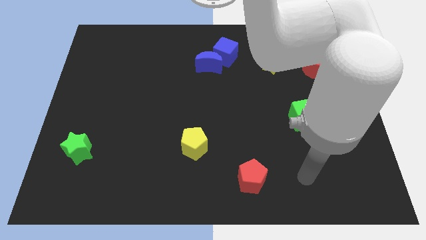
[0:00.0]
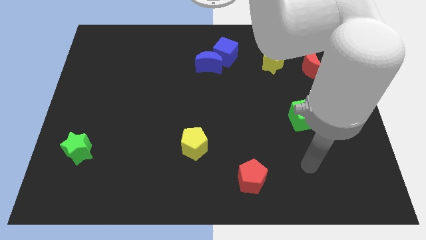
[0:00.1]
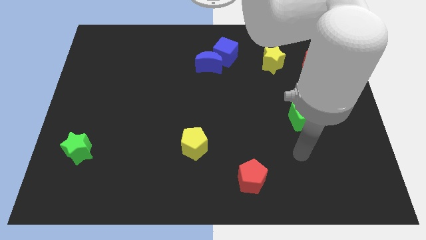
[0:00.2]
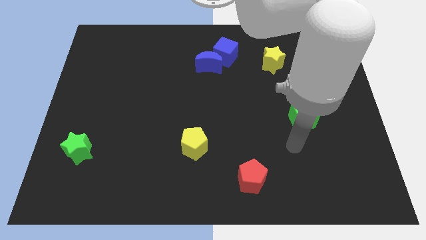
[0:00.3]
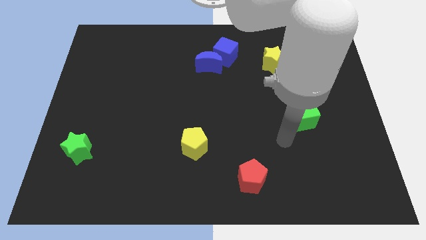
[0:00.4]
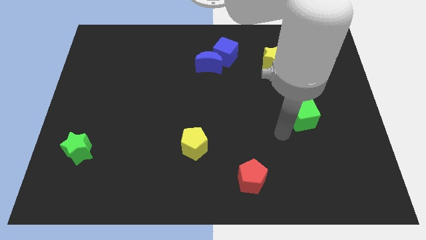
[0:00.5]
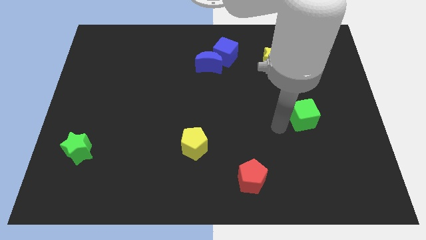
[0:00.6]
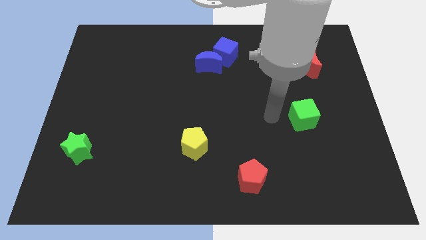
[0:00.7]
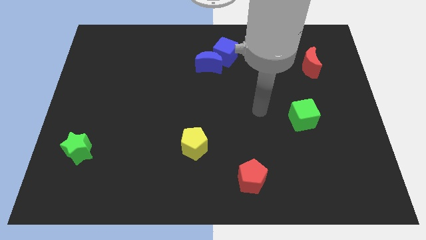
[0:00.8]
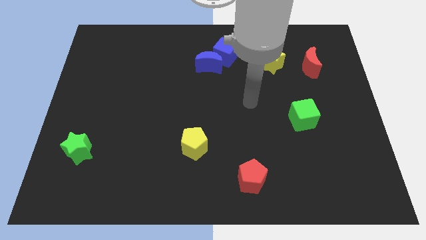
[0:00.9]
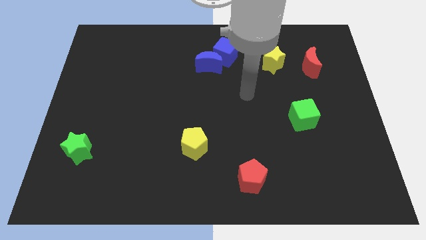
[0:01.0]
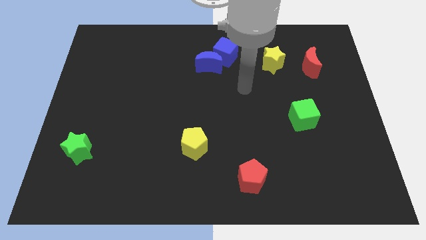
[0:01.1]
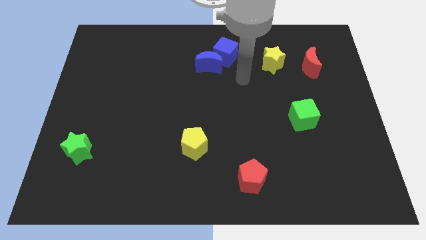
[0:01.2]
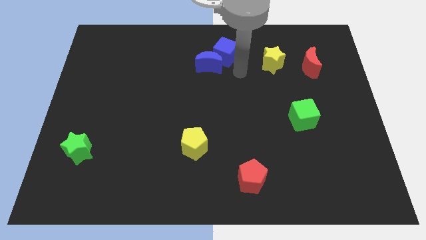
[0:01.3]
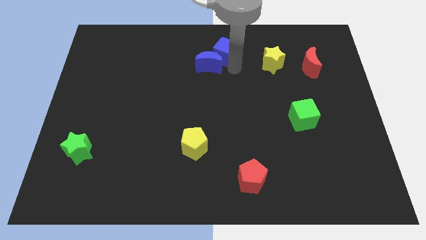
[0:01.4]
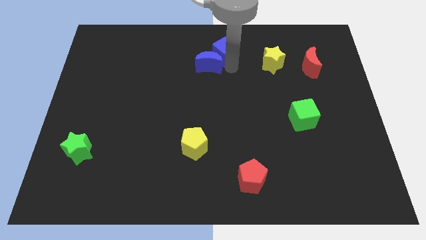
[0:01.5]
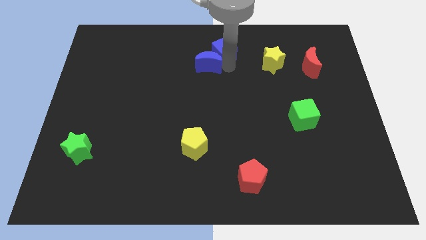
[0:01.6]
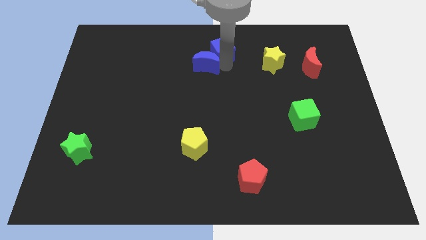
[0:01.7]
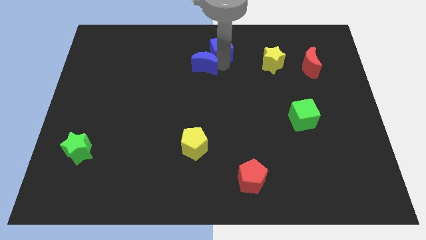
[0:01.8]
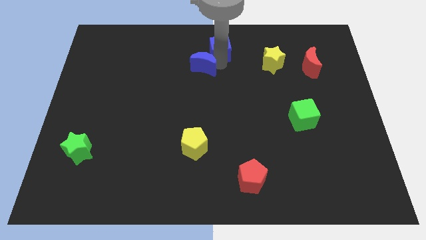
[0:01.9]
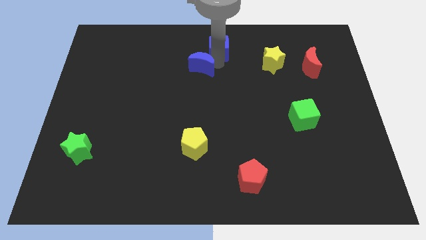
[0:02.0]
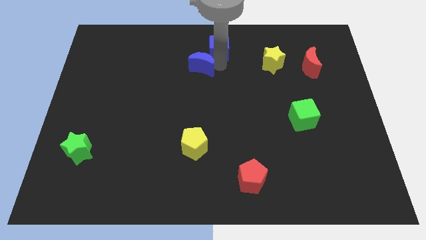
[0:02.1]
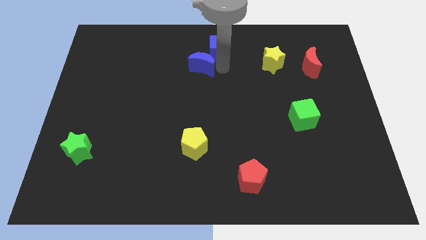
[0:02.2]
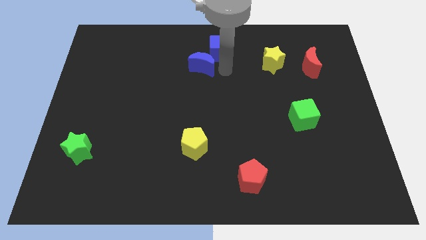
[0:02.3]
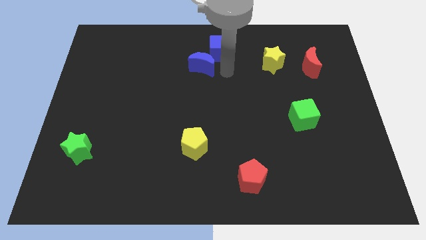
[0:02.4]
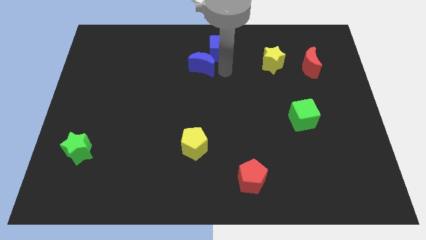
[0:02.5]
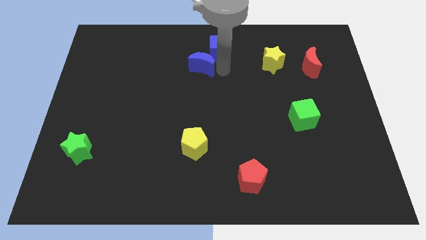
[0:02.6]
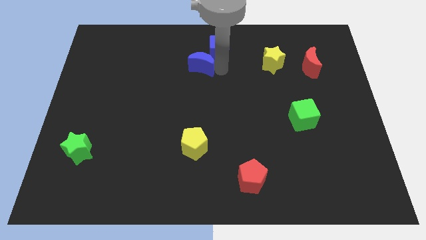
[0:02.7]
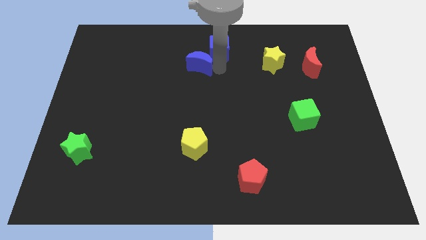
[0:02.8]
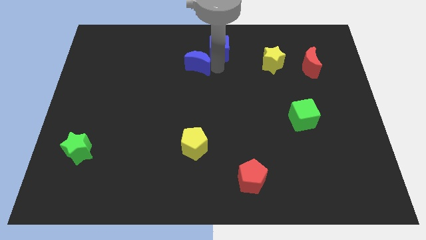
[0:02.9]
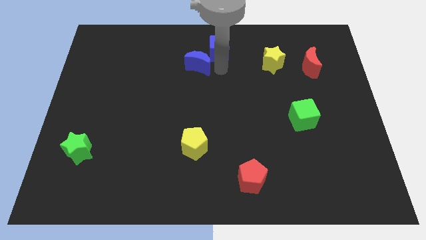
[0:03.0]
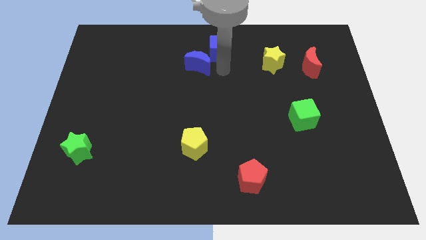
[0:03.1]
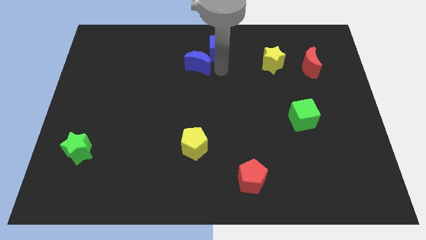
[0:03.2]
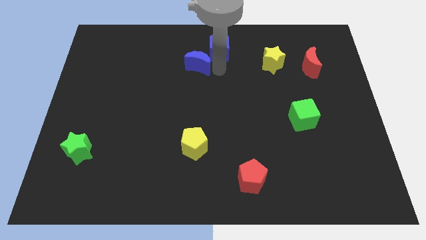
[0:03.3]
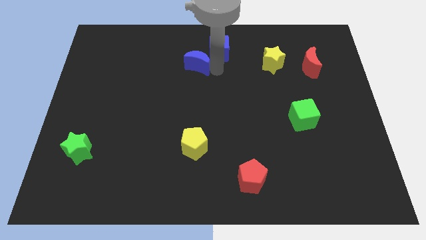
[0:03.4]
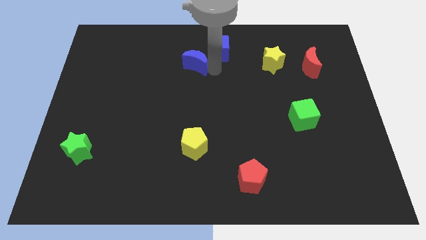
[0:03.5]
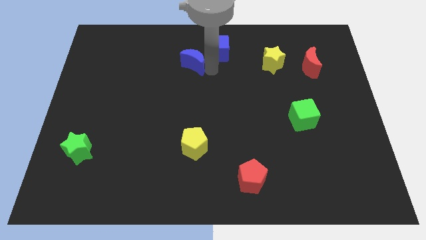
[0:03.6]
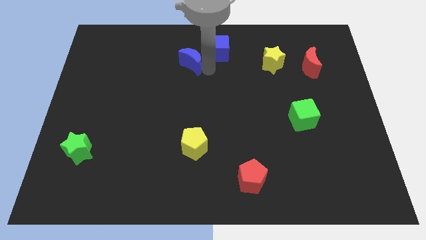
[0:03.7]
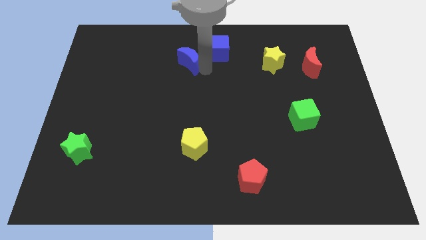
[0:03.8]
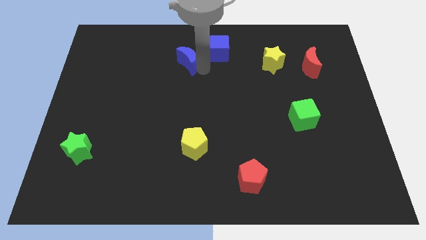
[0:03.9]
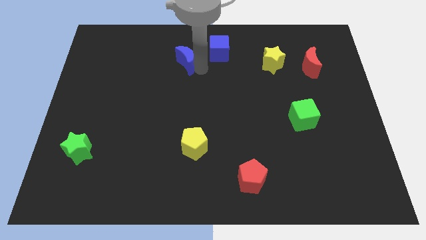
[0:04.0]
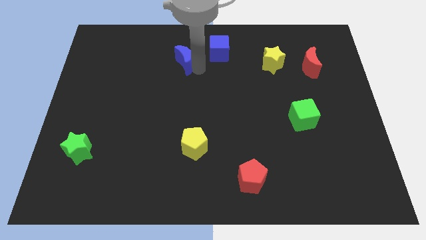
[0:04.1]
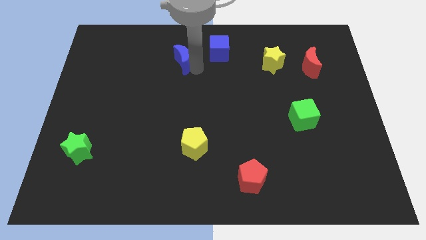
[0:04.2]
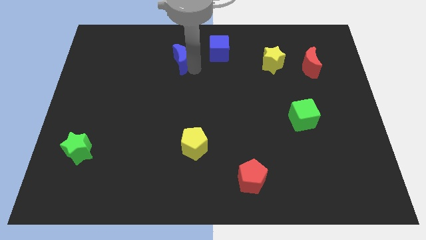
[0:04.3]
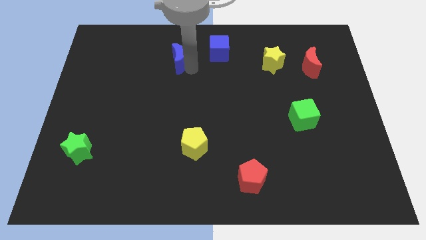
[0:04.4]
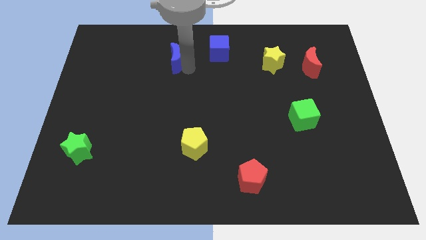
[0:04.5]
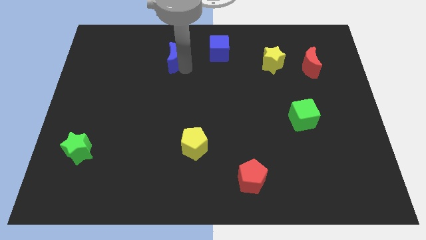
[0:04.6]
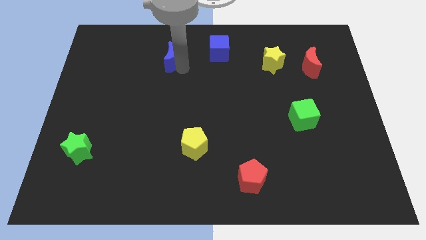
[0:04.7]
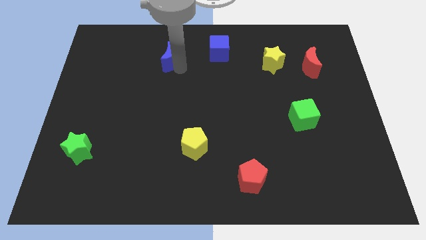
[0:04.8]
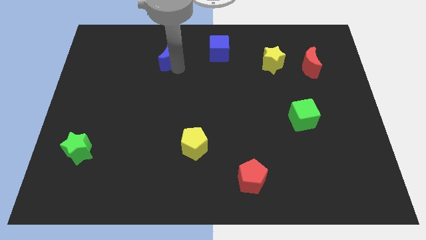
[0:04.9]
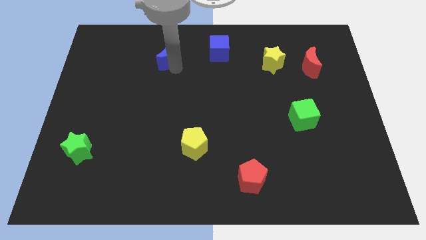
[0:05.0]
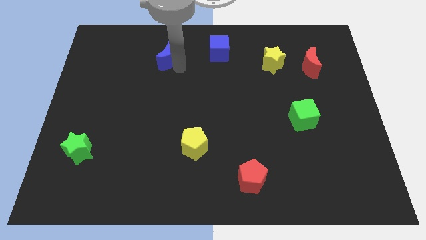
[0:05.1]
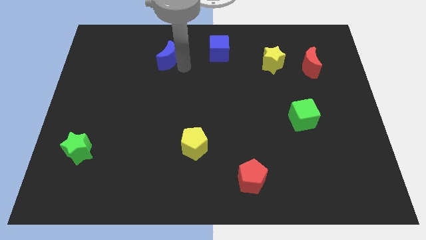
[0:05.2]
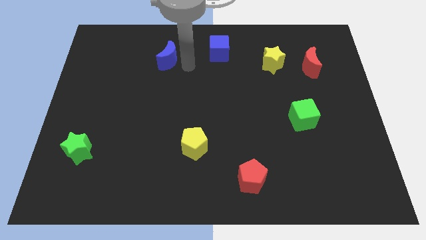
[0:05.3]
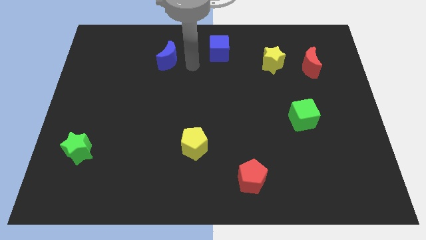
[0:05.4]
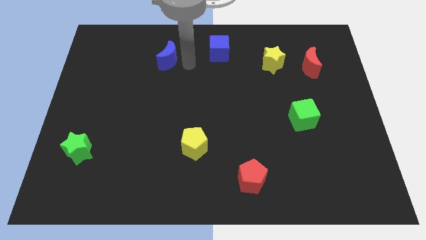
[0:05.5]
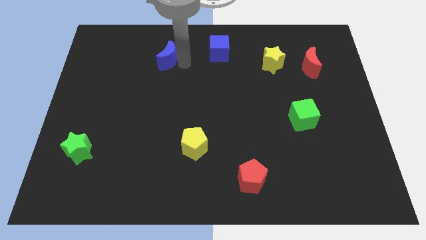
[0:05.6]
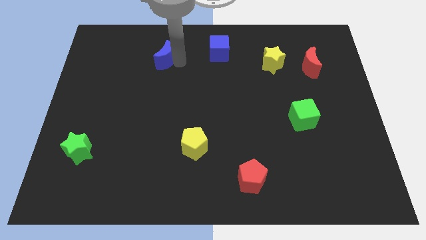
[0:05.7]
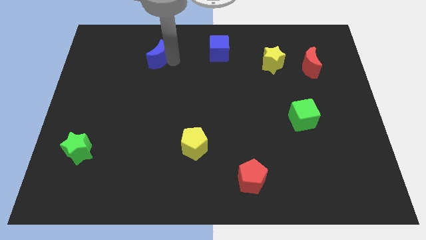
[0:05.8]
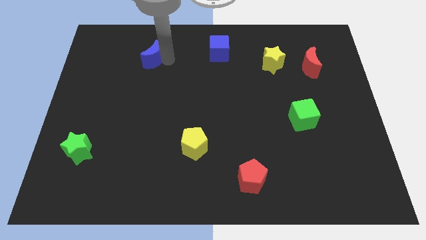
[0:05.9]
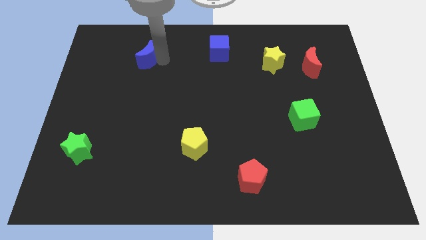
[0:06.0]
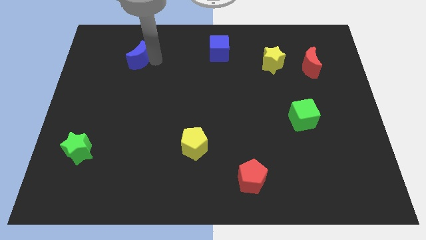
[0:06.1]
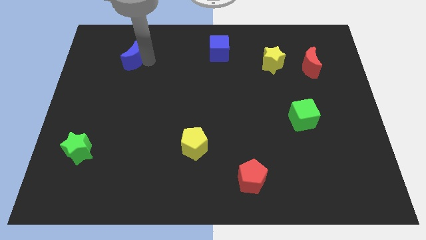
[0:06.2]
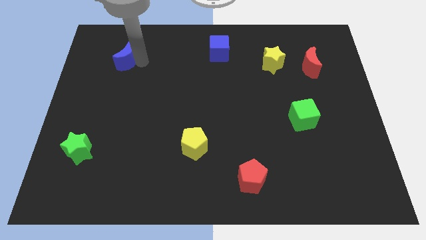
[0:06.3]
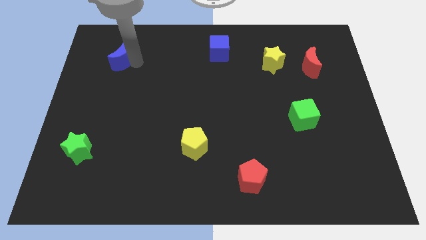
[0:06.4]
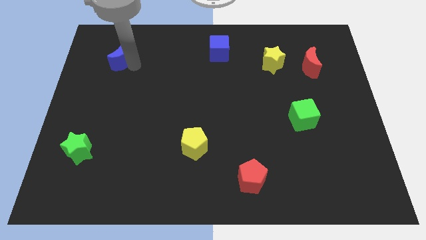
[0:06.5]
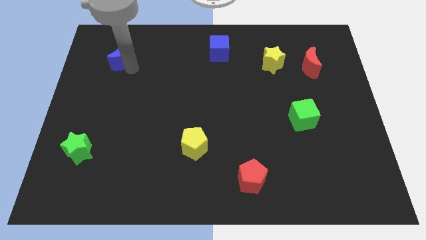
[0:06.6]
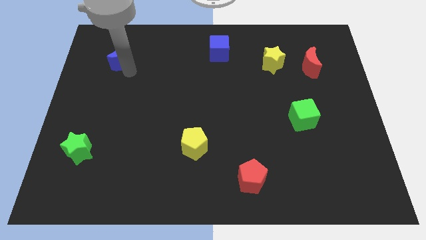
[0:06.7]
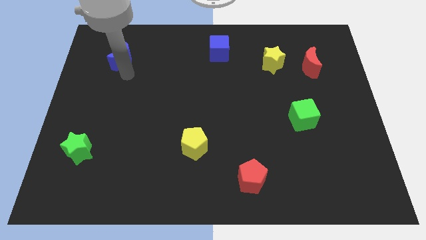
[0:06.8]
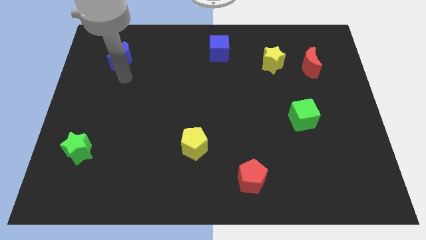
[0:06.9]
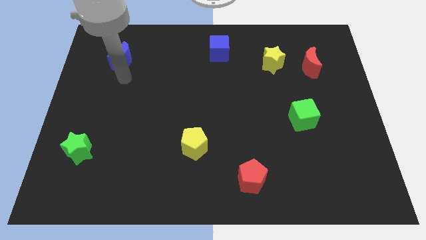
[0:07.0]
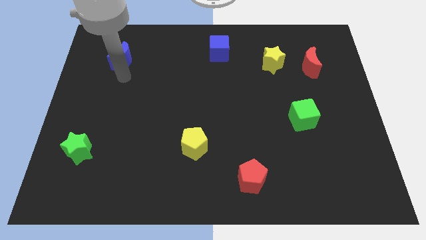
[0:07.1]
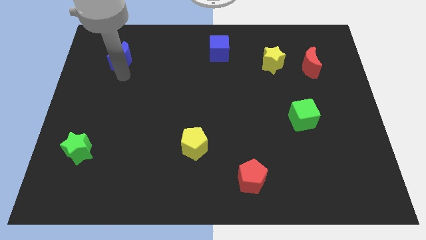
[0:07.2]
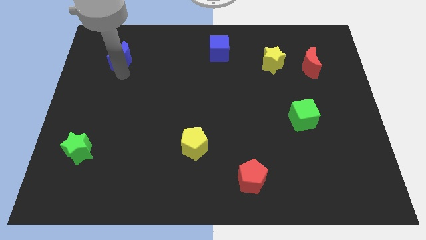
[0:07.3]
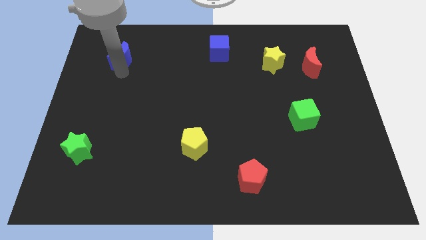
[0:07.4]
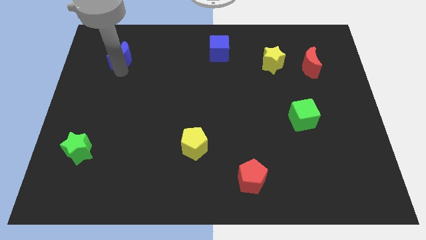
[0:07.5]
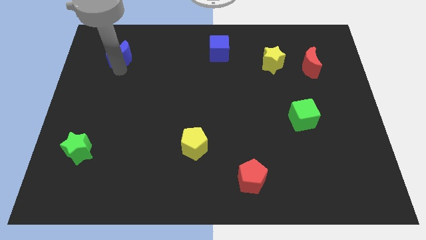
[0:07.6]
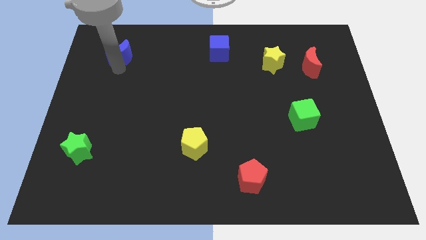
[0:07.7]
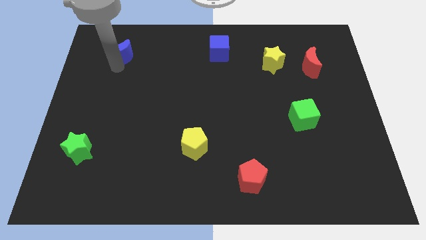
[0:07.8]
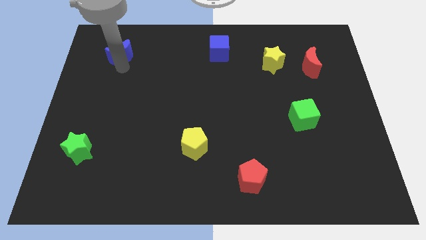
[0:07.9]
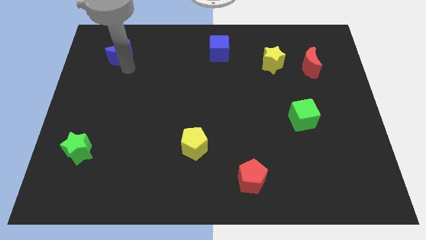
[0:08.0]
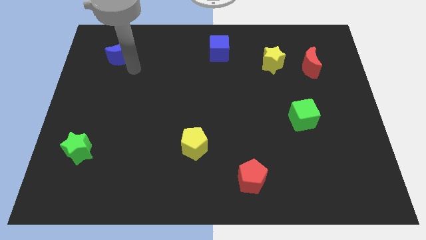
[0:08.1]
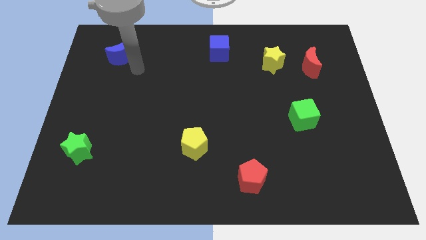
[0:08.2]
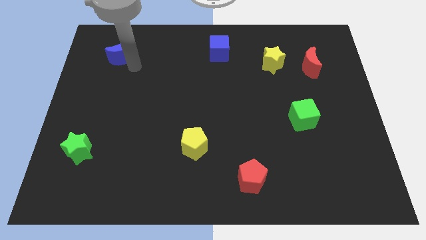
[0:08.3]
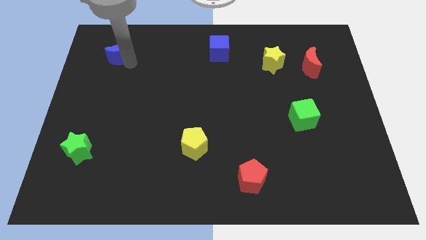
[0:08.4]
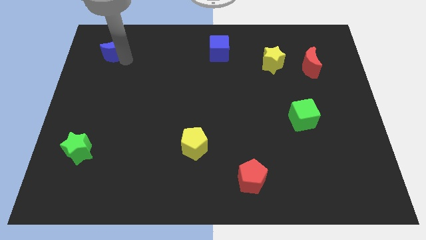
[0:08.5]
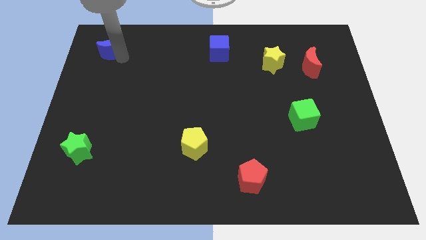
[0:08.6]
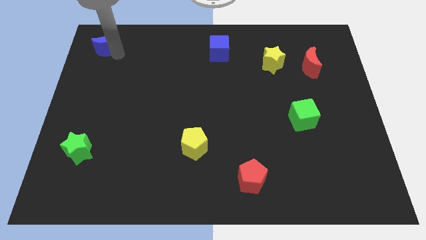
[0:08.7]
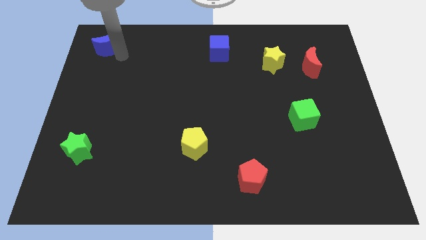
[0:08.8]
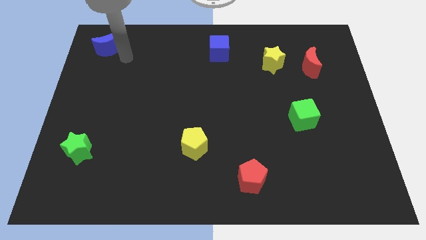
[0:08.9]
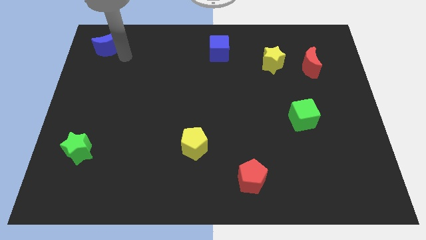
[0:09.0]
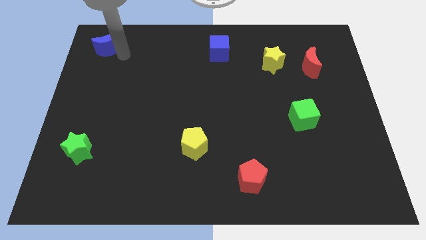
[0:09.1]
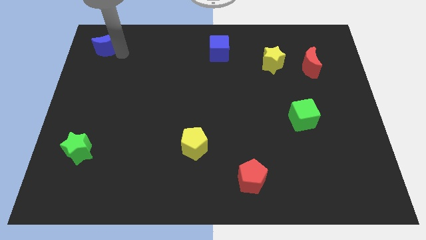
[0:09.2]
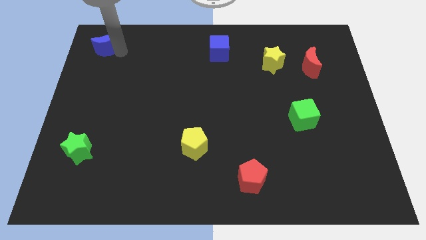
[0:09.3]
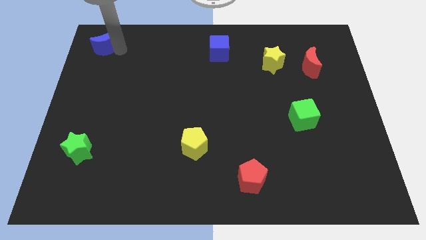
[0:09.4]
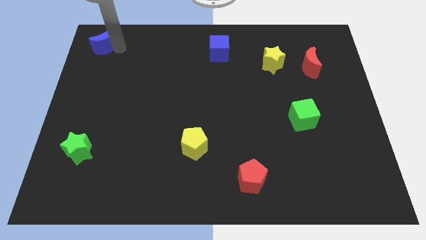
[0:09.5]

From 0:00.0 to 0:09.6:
move the blue moon to the top left corner
